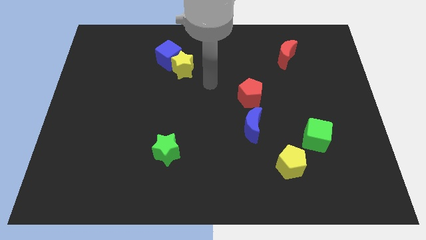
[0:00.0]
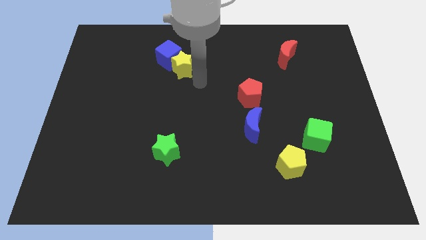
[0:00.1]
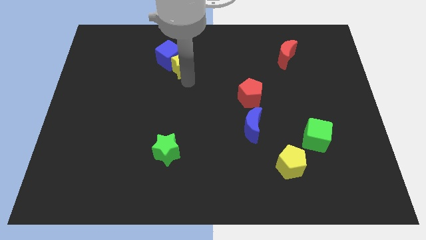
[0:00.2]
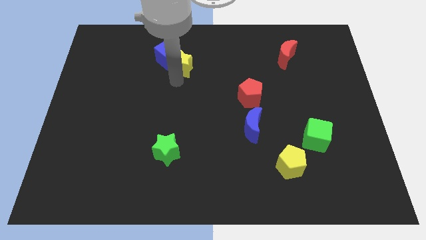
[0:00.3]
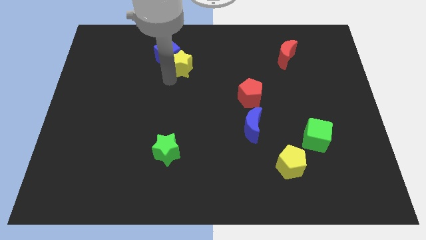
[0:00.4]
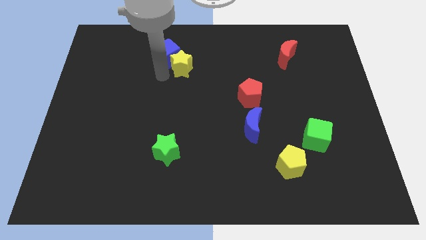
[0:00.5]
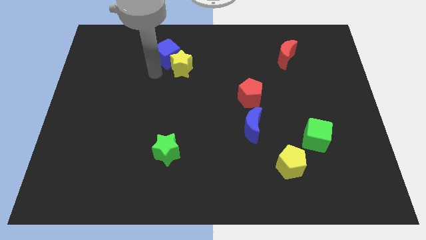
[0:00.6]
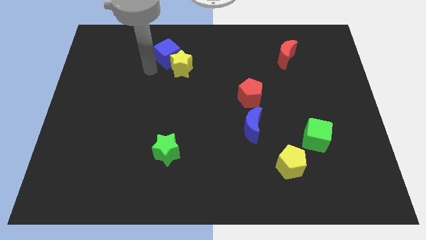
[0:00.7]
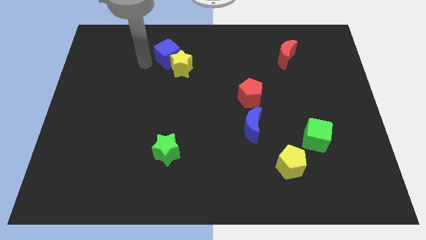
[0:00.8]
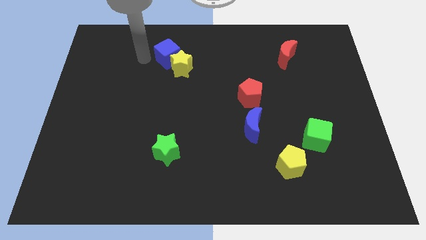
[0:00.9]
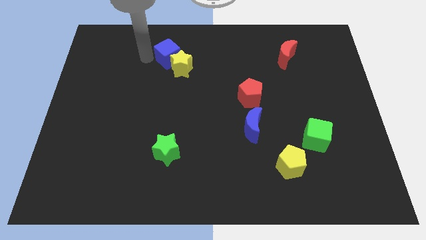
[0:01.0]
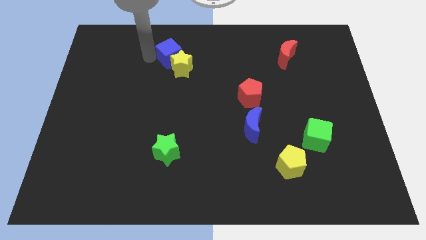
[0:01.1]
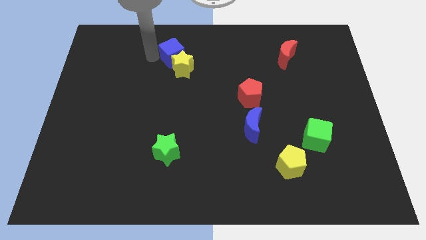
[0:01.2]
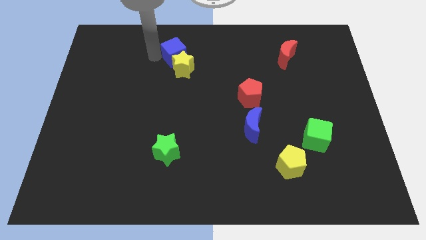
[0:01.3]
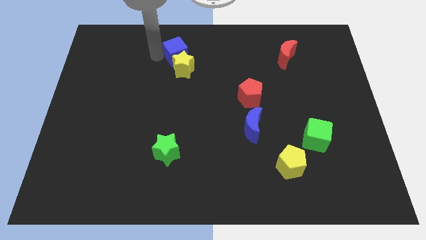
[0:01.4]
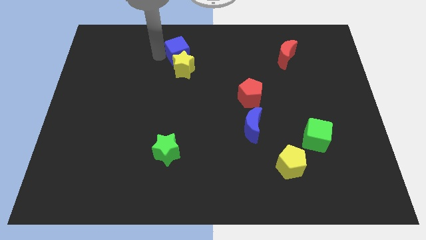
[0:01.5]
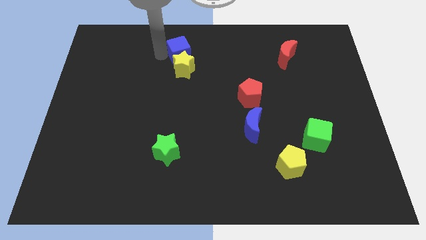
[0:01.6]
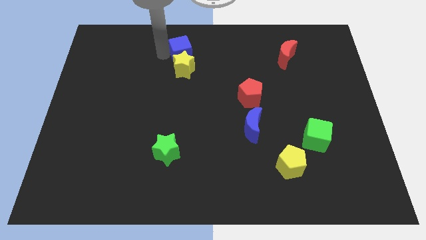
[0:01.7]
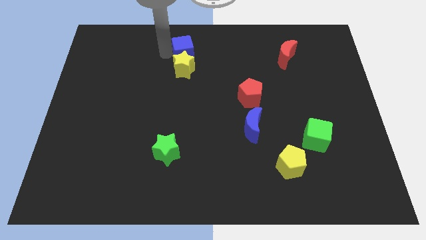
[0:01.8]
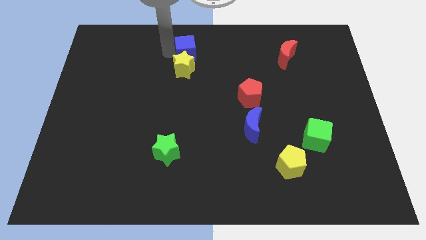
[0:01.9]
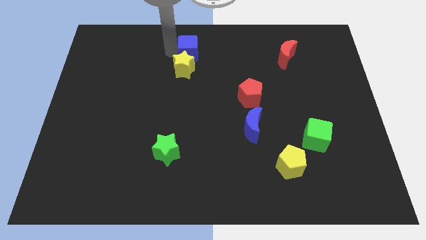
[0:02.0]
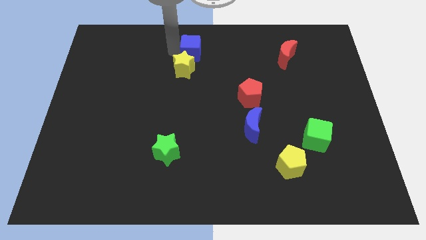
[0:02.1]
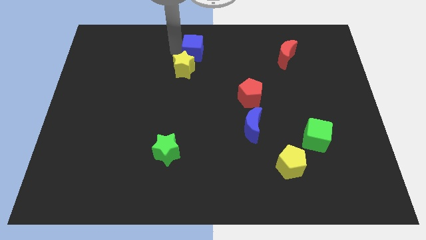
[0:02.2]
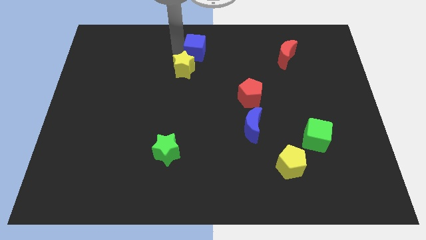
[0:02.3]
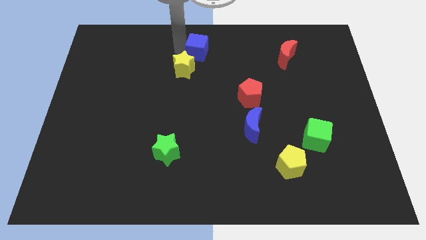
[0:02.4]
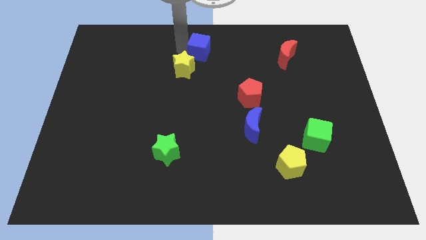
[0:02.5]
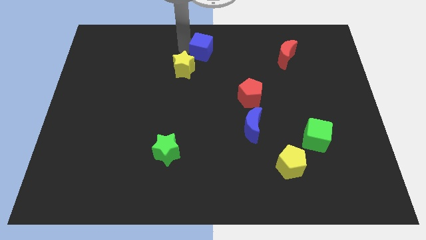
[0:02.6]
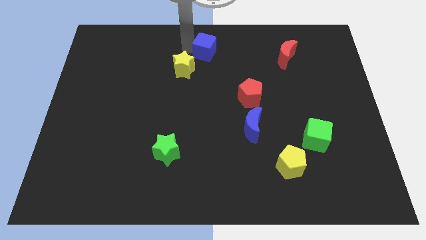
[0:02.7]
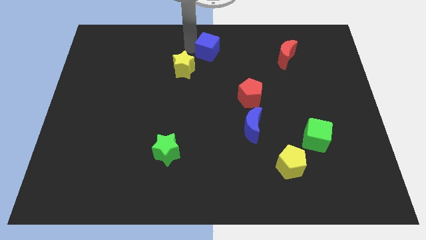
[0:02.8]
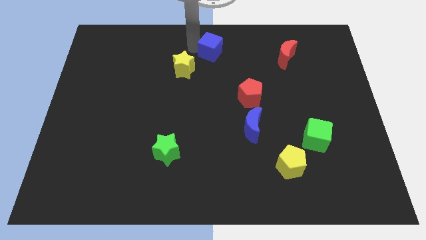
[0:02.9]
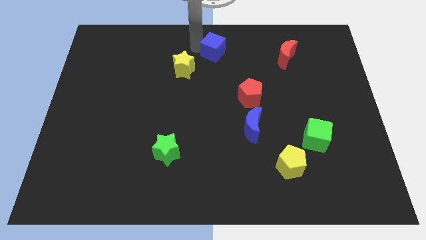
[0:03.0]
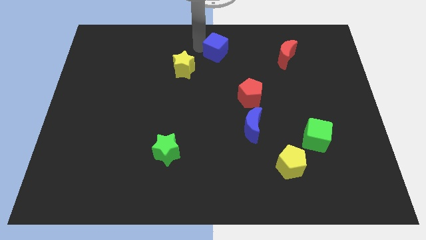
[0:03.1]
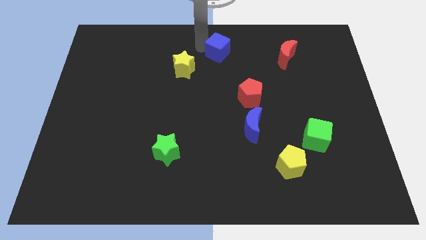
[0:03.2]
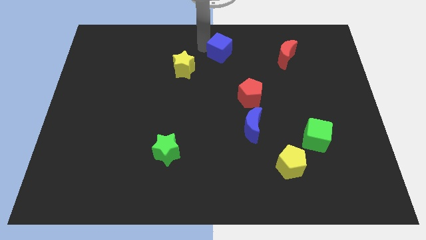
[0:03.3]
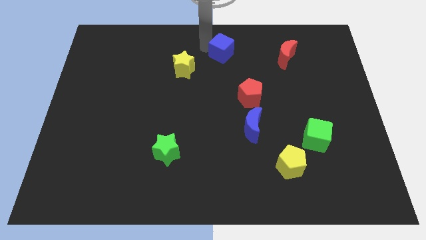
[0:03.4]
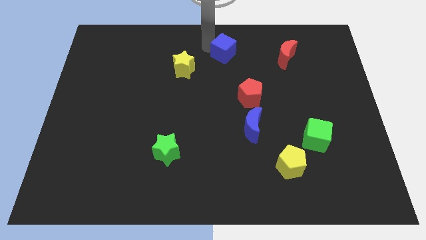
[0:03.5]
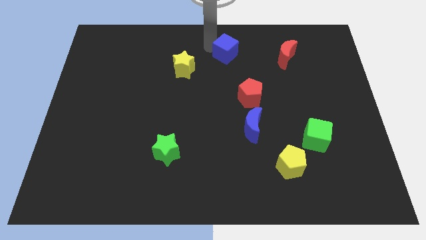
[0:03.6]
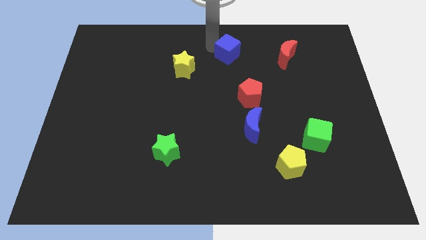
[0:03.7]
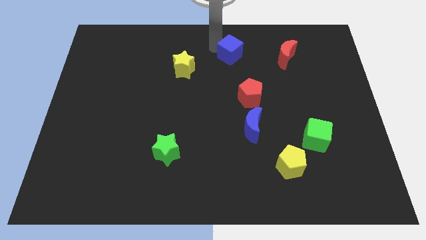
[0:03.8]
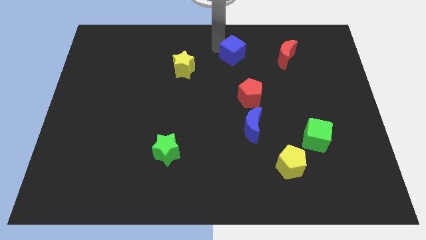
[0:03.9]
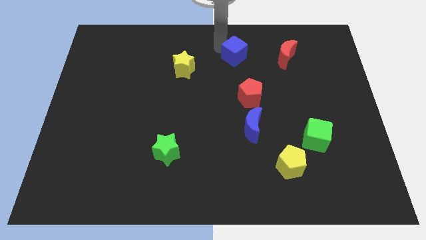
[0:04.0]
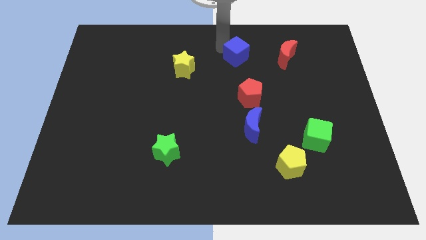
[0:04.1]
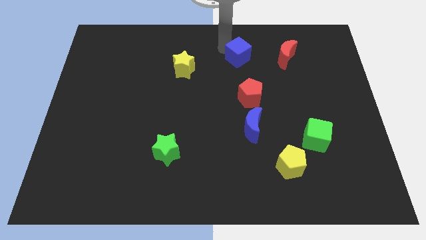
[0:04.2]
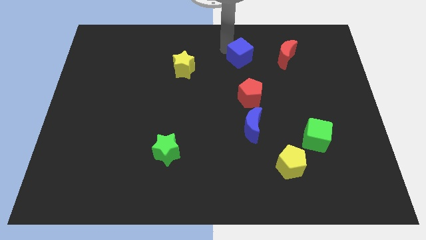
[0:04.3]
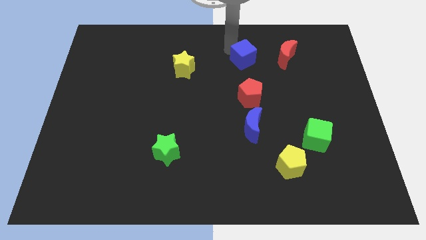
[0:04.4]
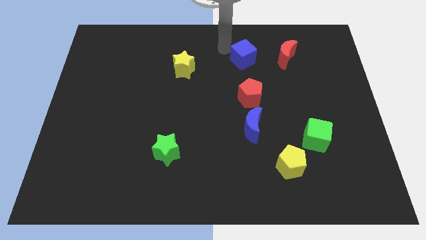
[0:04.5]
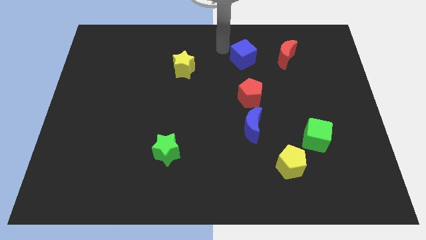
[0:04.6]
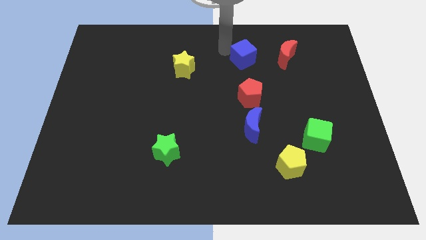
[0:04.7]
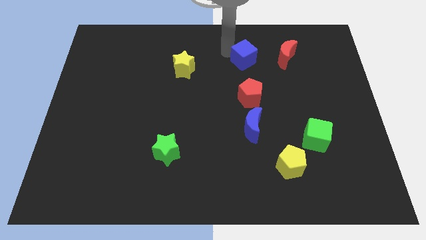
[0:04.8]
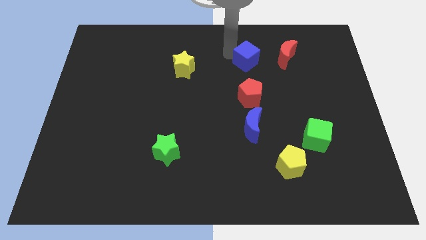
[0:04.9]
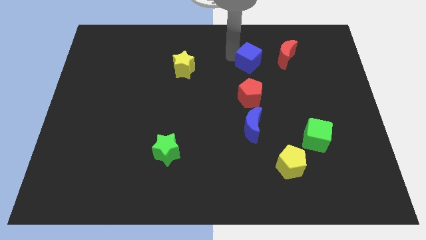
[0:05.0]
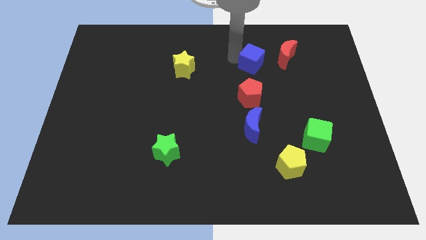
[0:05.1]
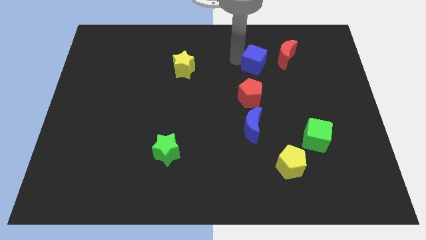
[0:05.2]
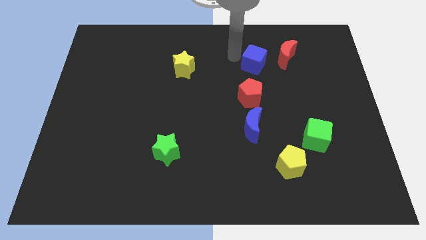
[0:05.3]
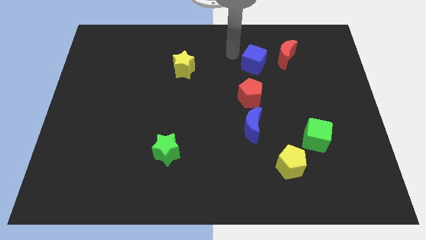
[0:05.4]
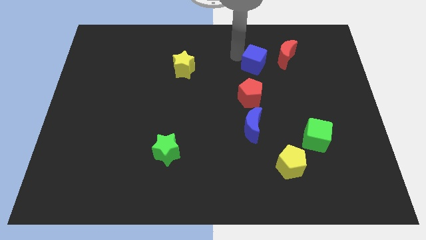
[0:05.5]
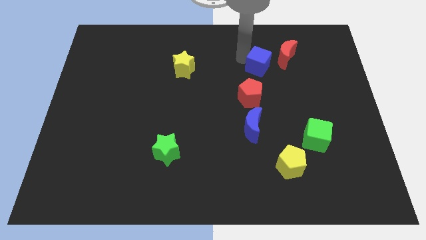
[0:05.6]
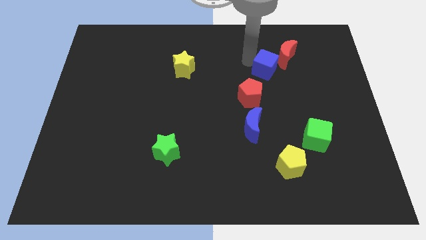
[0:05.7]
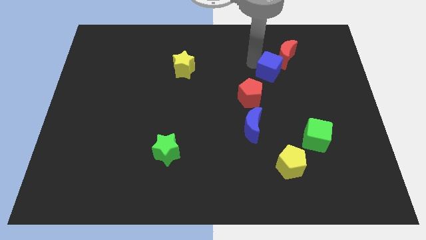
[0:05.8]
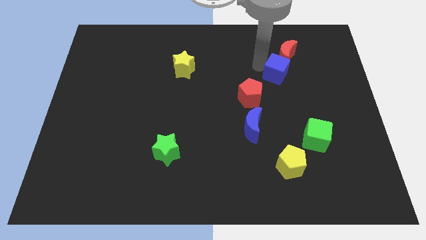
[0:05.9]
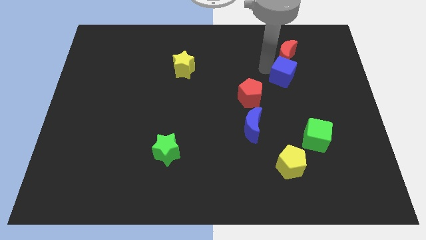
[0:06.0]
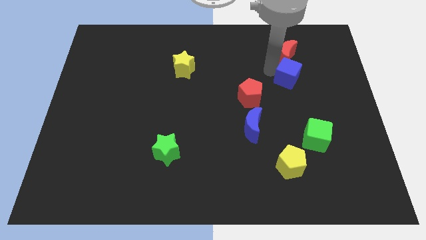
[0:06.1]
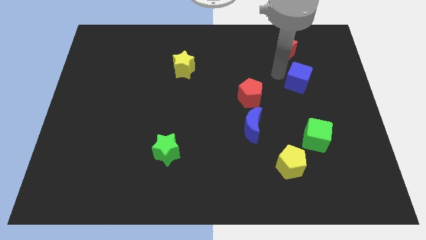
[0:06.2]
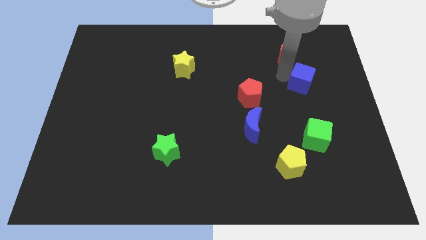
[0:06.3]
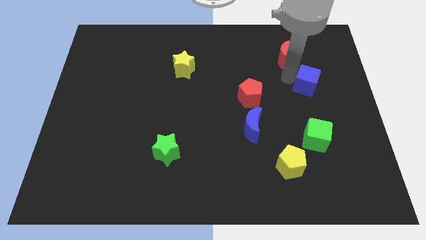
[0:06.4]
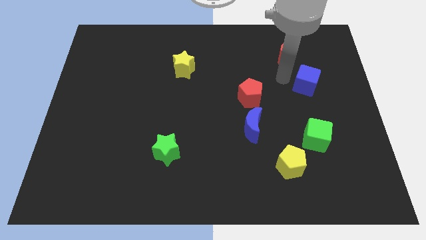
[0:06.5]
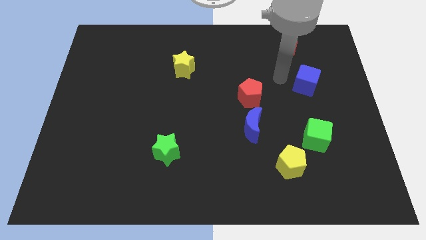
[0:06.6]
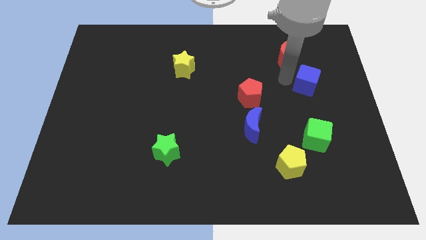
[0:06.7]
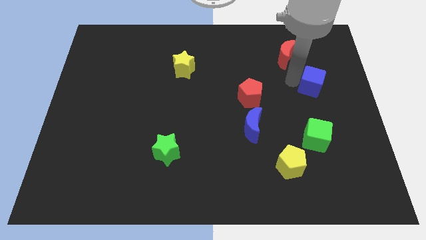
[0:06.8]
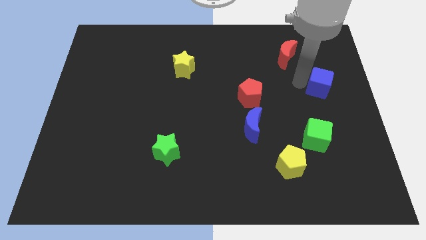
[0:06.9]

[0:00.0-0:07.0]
put the blue cube to the center right
